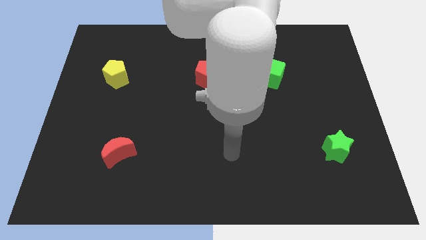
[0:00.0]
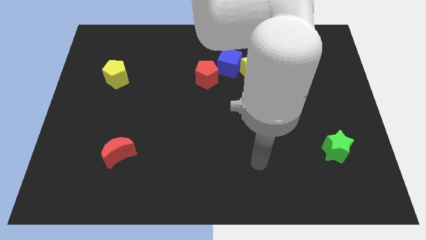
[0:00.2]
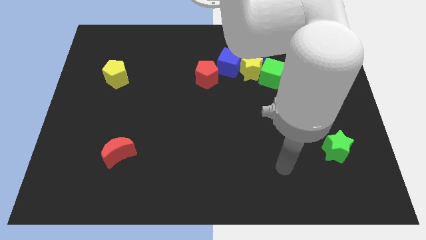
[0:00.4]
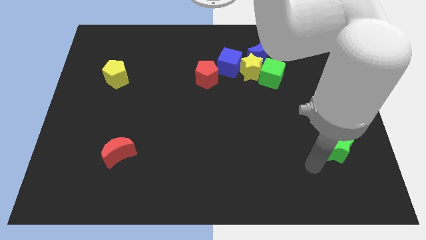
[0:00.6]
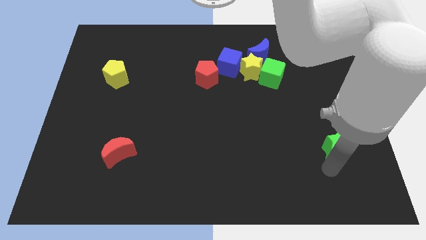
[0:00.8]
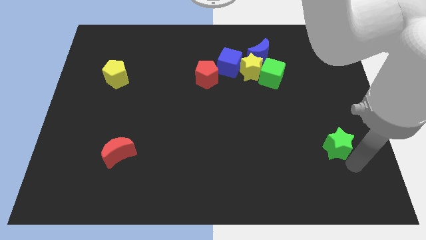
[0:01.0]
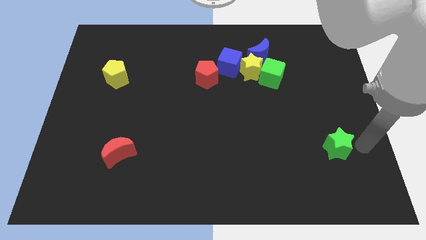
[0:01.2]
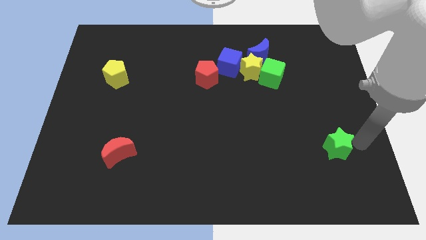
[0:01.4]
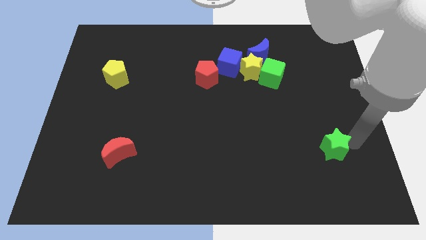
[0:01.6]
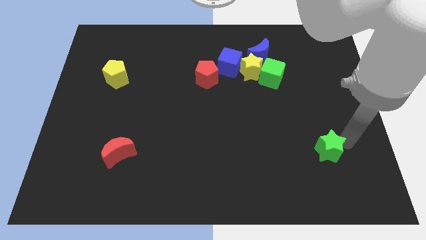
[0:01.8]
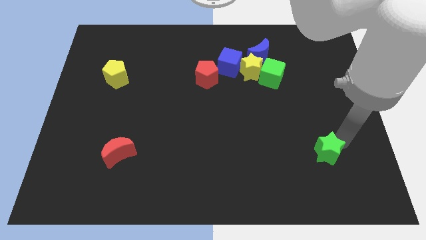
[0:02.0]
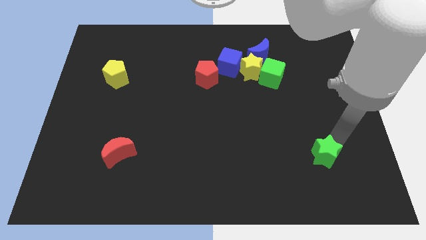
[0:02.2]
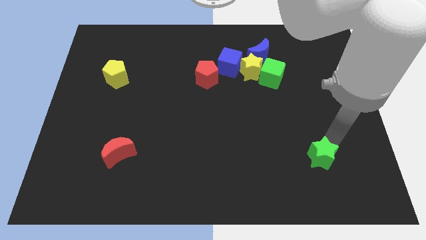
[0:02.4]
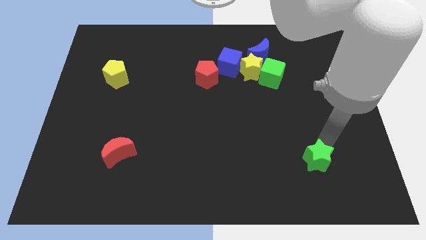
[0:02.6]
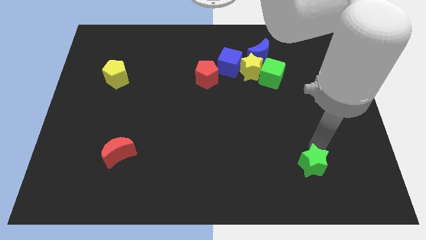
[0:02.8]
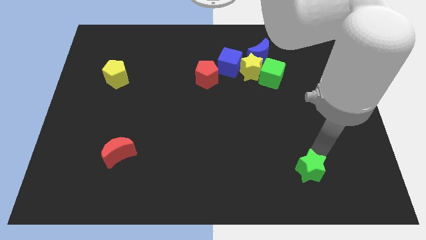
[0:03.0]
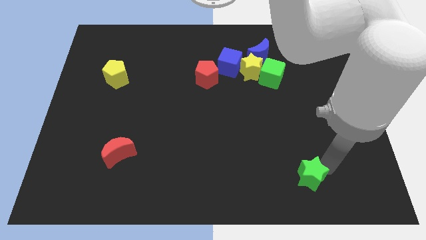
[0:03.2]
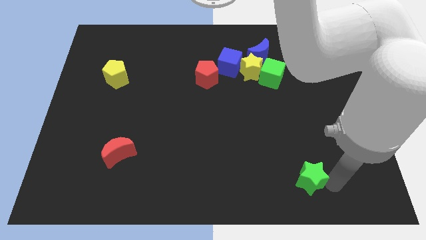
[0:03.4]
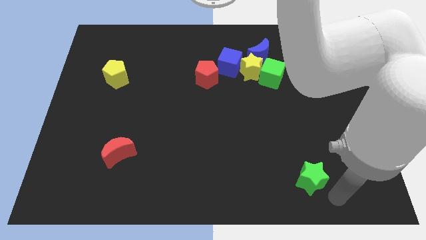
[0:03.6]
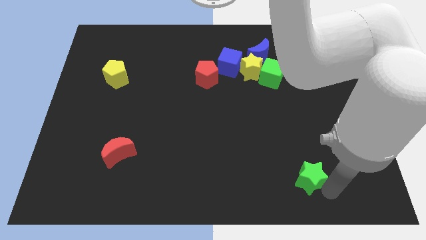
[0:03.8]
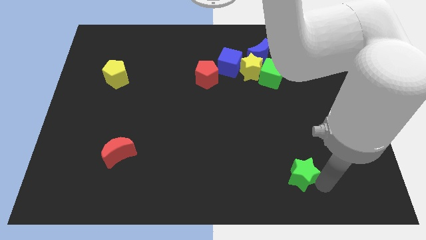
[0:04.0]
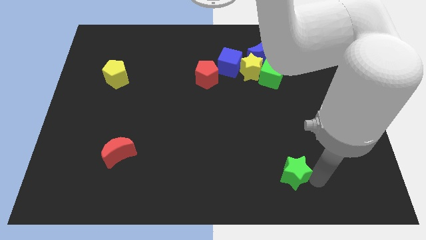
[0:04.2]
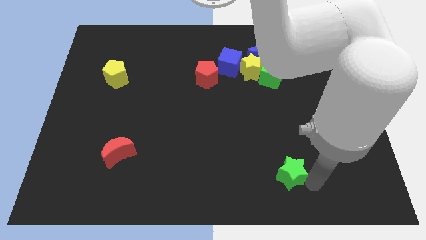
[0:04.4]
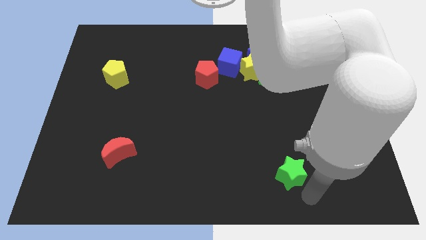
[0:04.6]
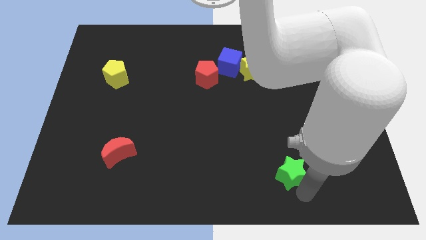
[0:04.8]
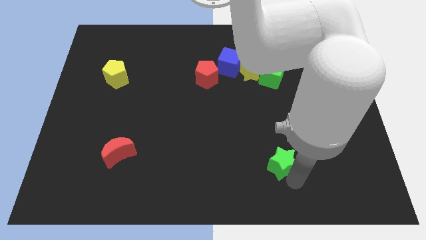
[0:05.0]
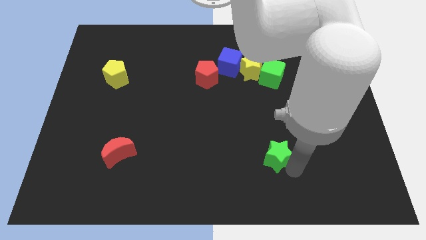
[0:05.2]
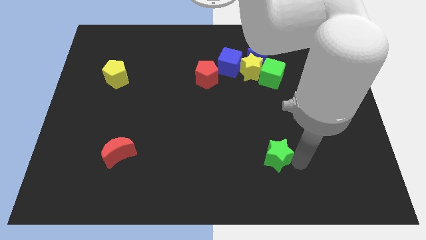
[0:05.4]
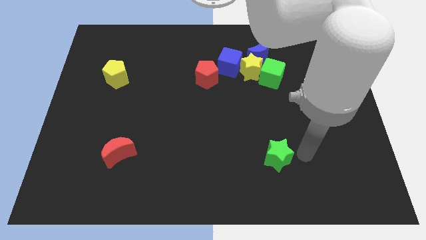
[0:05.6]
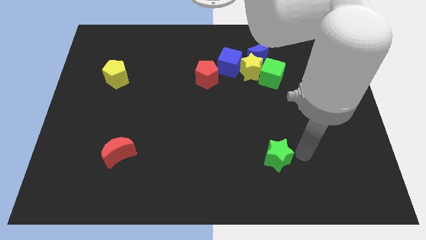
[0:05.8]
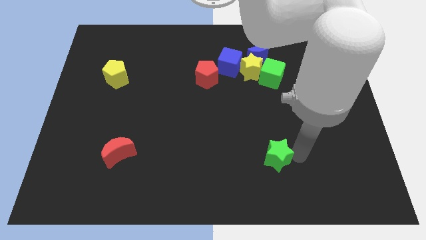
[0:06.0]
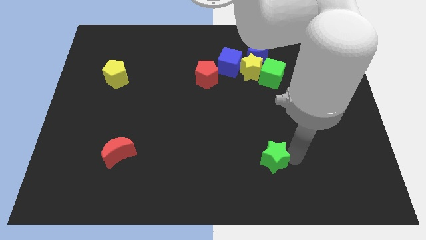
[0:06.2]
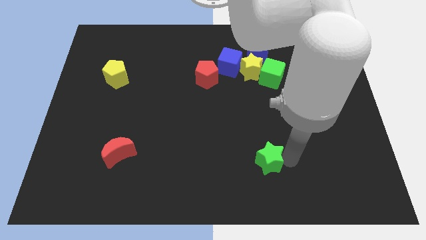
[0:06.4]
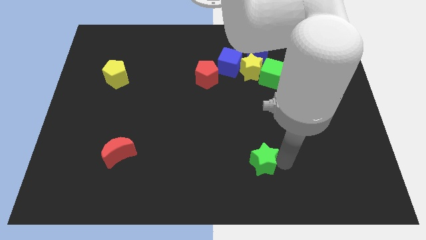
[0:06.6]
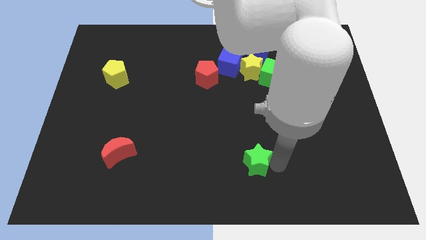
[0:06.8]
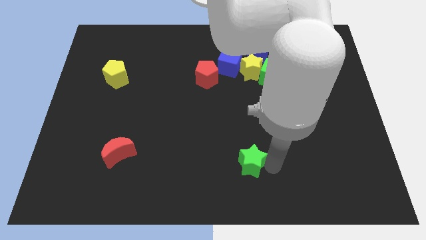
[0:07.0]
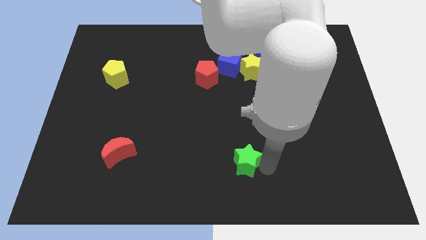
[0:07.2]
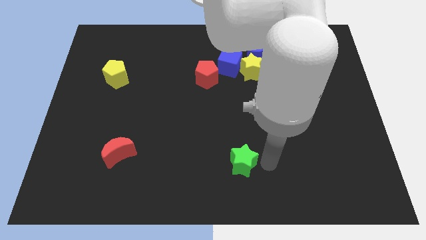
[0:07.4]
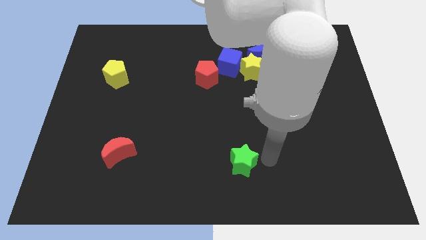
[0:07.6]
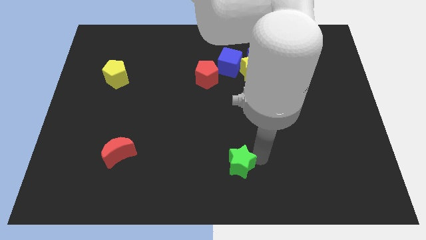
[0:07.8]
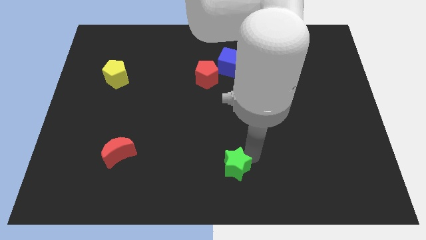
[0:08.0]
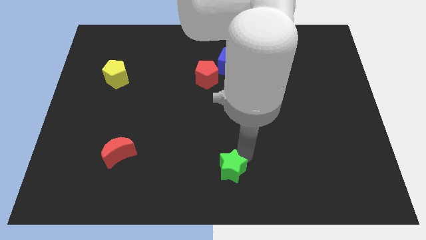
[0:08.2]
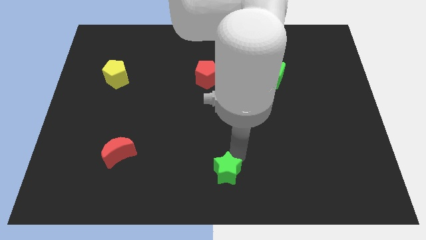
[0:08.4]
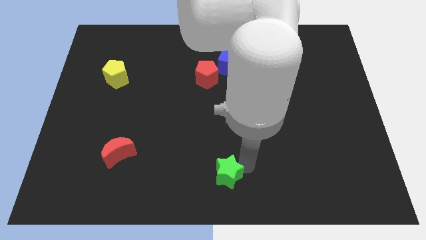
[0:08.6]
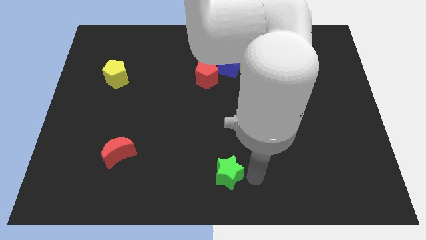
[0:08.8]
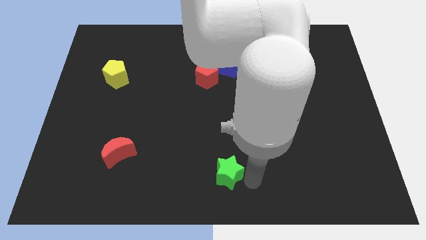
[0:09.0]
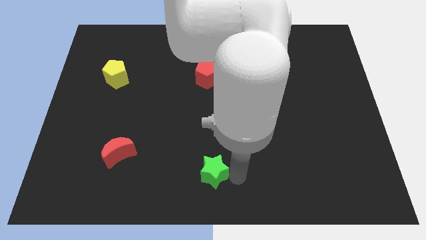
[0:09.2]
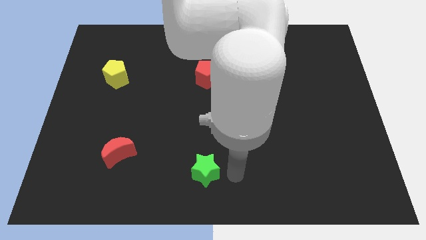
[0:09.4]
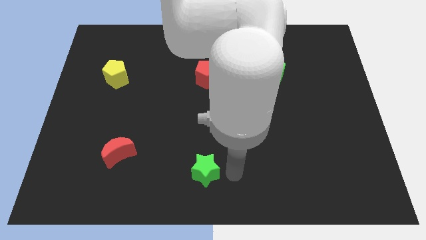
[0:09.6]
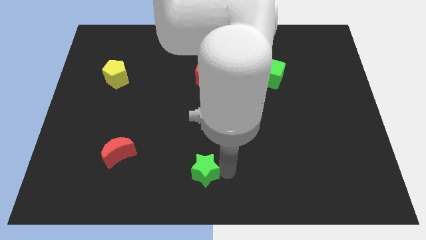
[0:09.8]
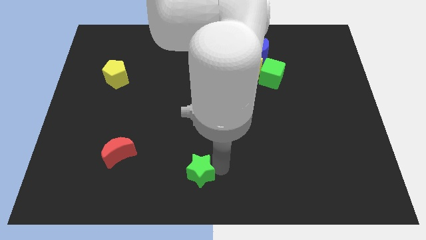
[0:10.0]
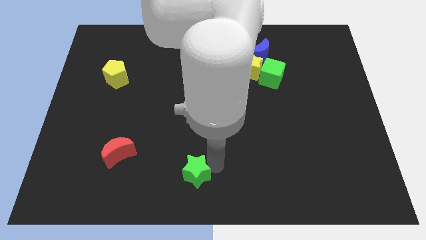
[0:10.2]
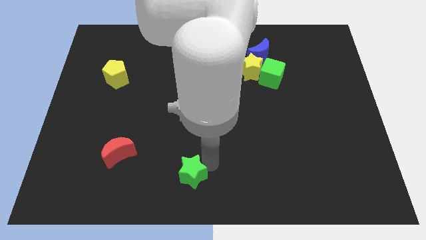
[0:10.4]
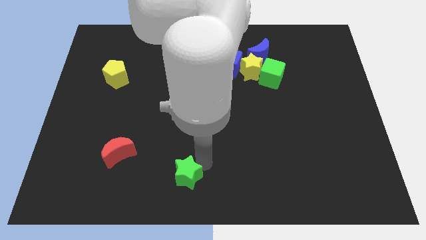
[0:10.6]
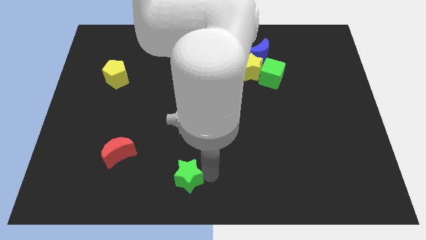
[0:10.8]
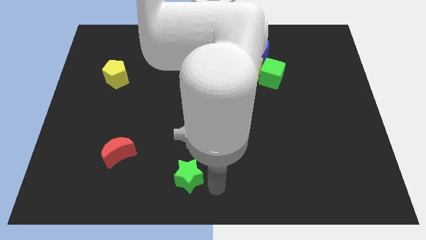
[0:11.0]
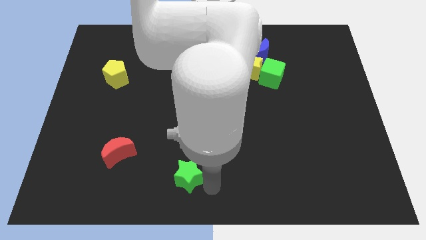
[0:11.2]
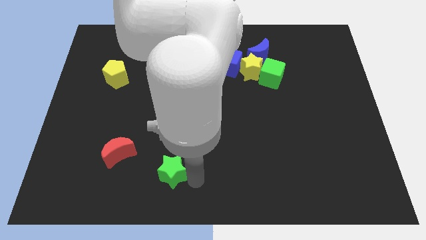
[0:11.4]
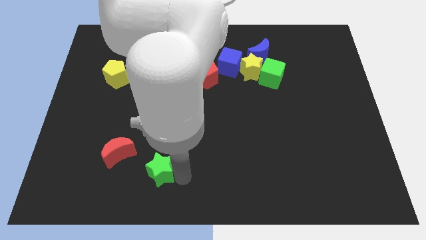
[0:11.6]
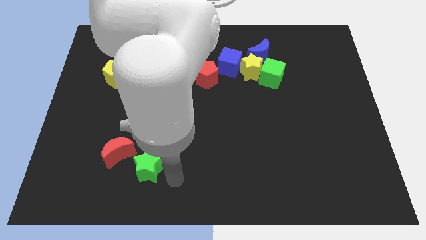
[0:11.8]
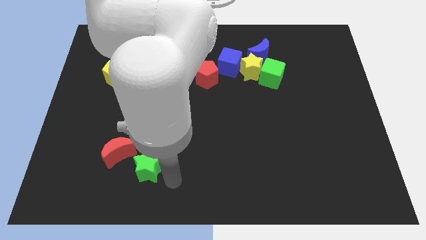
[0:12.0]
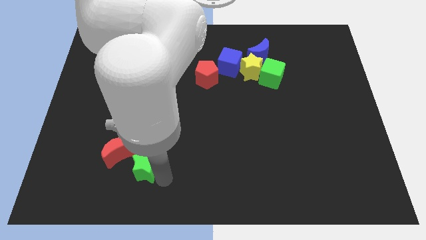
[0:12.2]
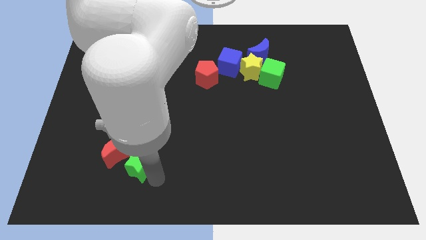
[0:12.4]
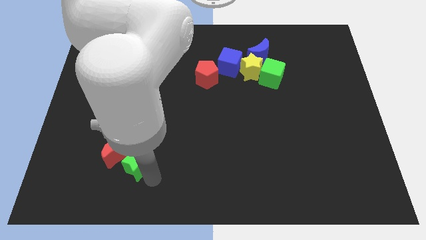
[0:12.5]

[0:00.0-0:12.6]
slide the green star to the red moon

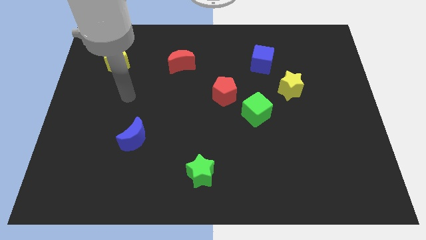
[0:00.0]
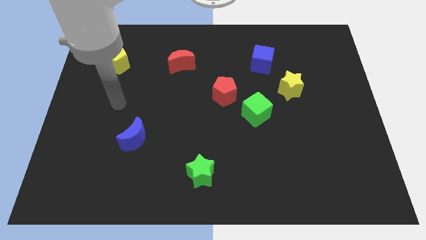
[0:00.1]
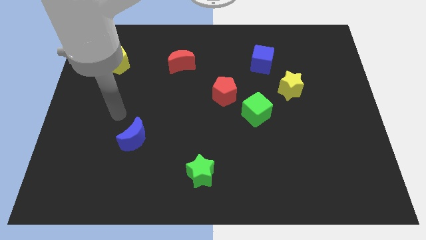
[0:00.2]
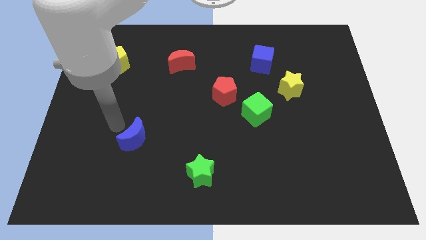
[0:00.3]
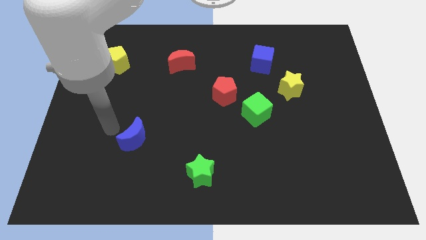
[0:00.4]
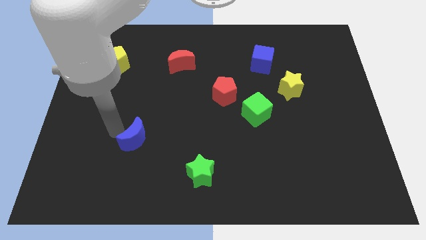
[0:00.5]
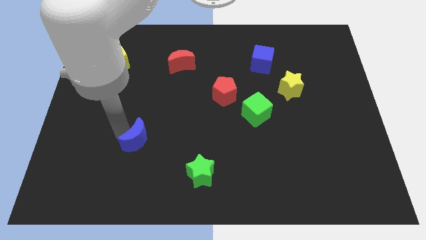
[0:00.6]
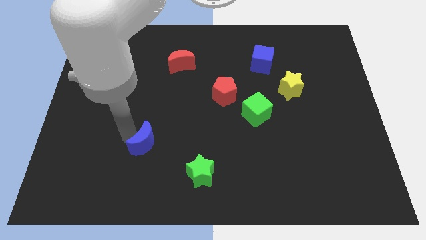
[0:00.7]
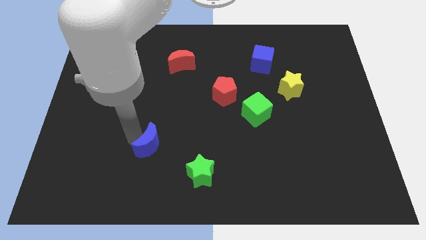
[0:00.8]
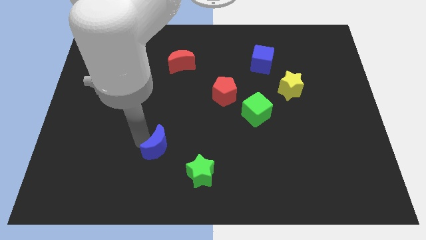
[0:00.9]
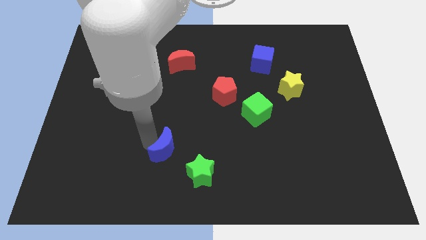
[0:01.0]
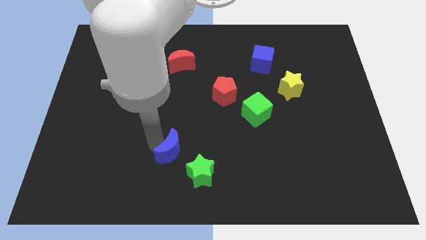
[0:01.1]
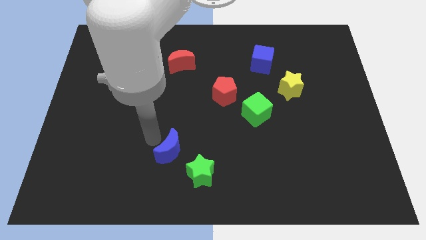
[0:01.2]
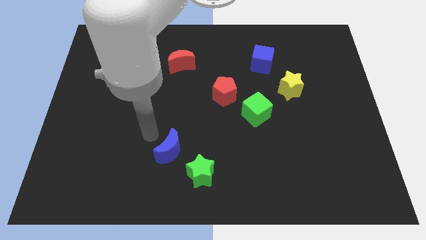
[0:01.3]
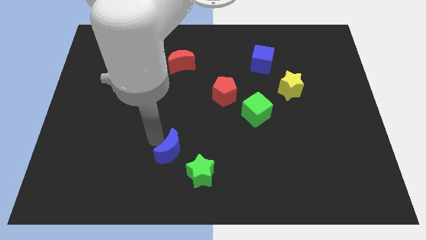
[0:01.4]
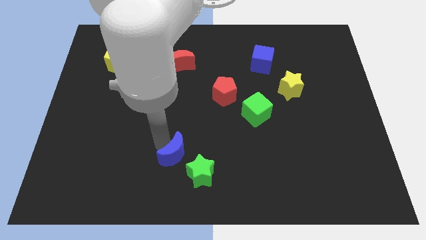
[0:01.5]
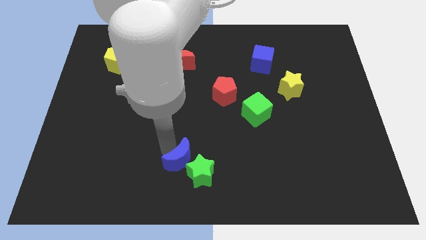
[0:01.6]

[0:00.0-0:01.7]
push the blue moon towards the green star
